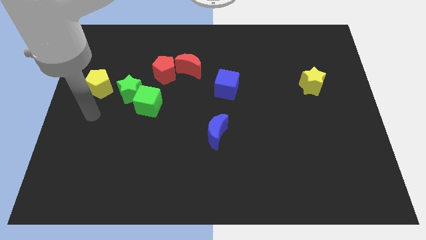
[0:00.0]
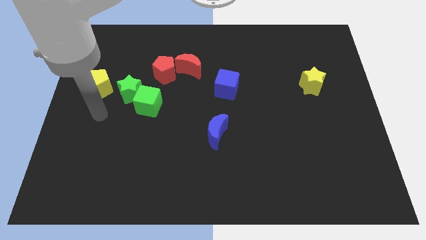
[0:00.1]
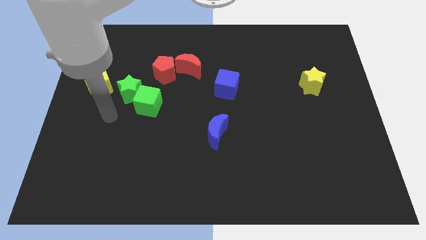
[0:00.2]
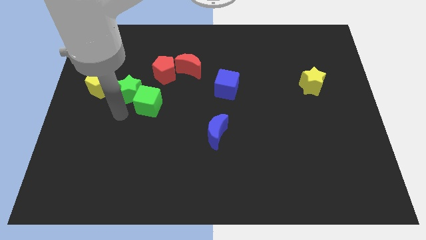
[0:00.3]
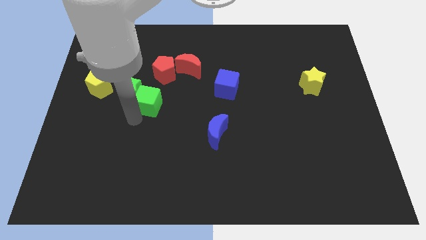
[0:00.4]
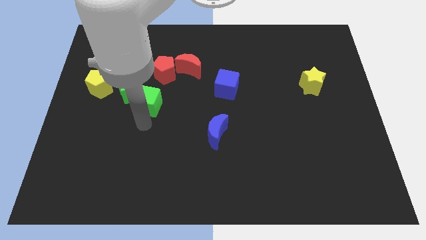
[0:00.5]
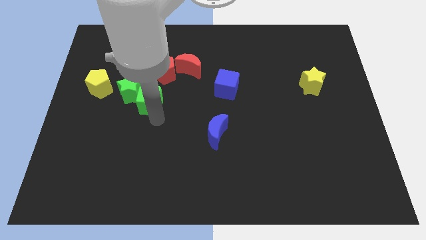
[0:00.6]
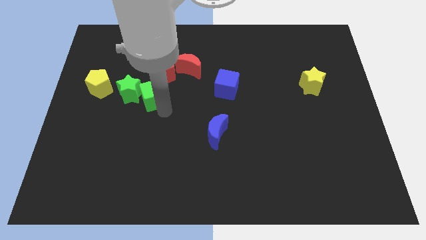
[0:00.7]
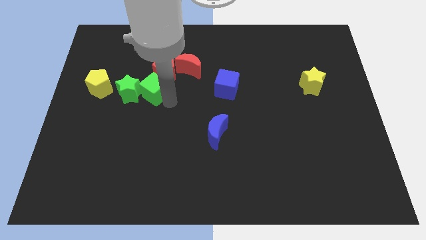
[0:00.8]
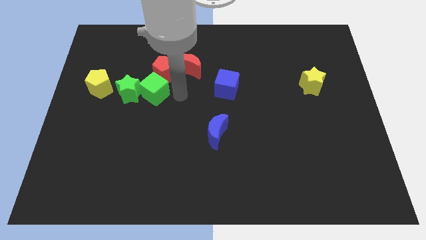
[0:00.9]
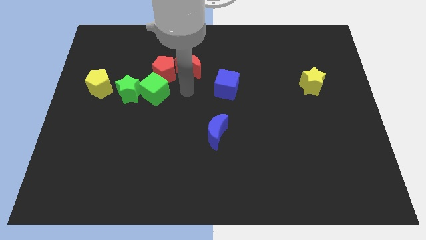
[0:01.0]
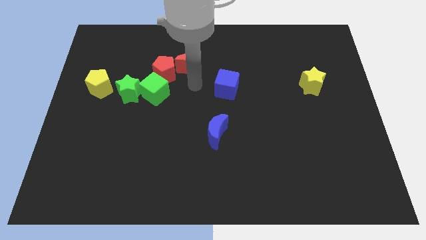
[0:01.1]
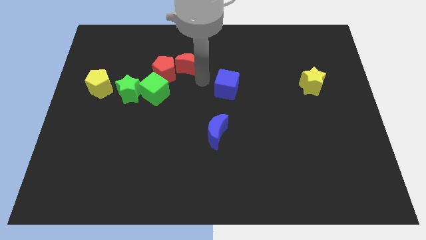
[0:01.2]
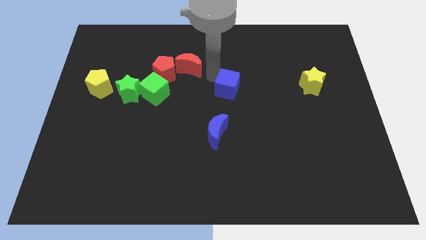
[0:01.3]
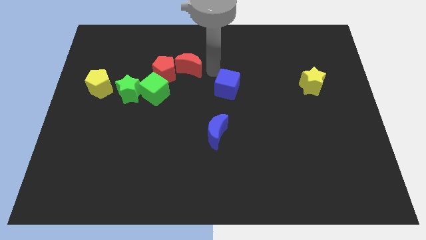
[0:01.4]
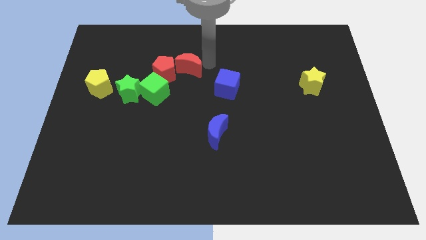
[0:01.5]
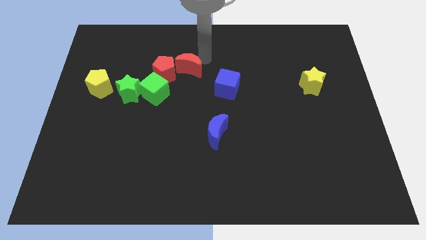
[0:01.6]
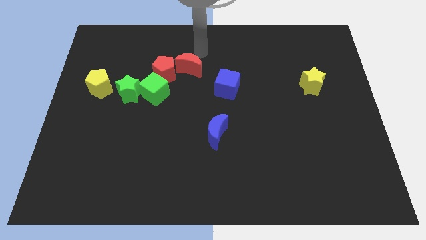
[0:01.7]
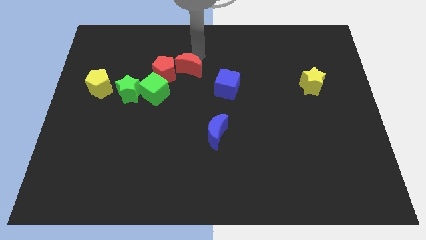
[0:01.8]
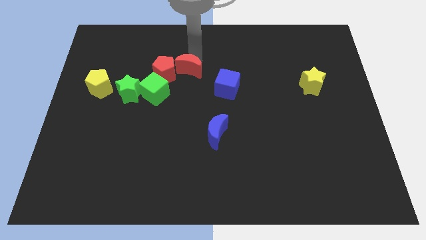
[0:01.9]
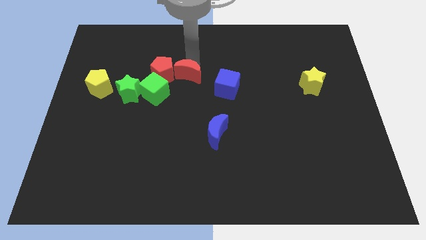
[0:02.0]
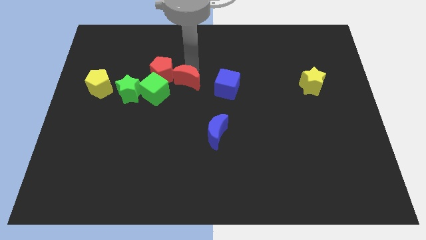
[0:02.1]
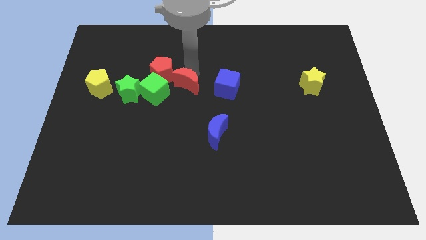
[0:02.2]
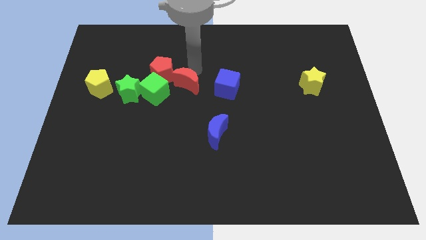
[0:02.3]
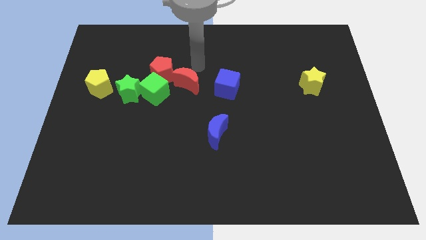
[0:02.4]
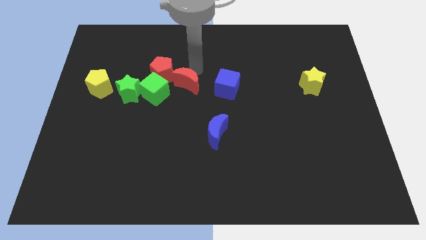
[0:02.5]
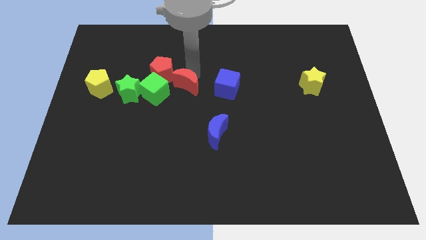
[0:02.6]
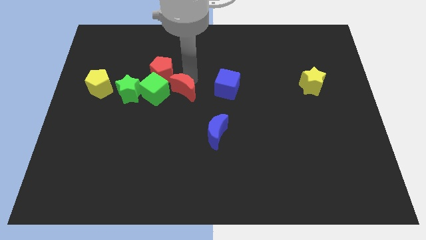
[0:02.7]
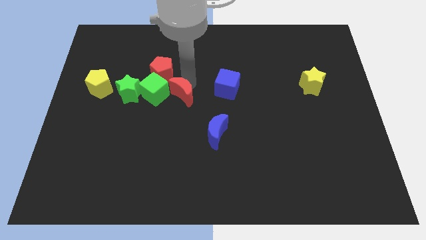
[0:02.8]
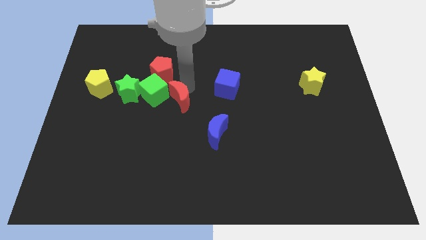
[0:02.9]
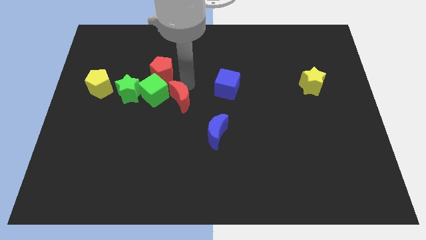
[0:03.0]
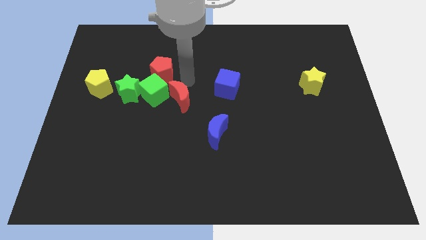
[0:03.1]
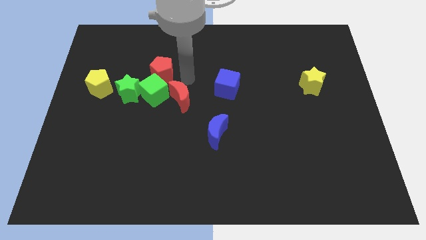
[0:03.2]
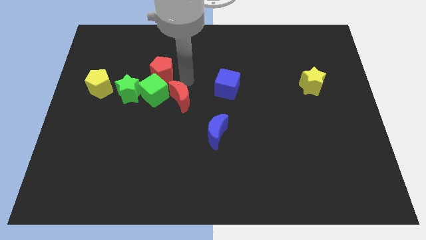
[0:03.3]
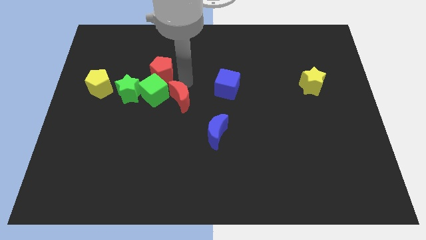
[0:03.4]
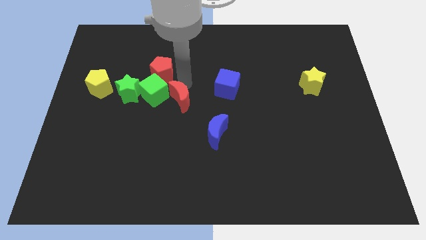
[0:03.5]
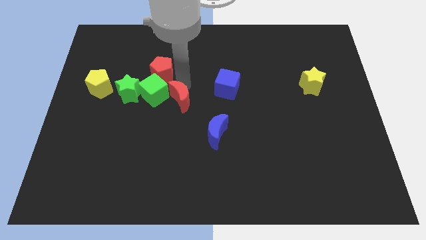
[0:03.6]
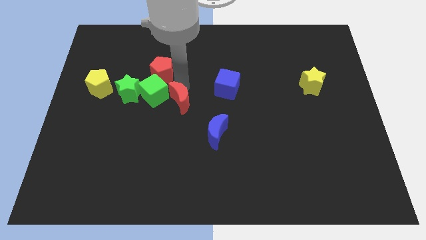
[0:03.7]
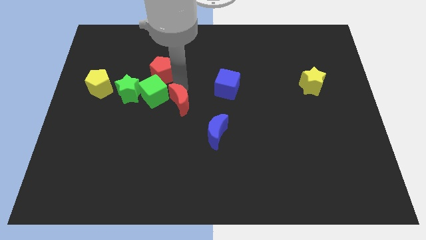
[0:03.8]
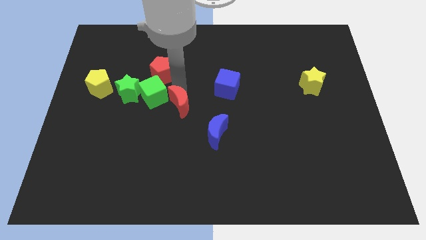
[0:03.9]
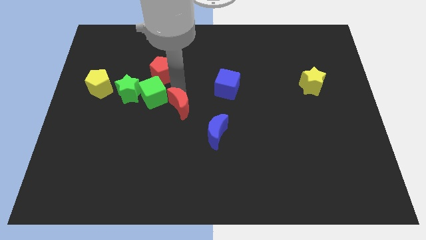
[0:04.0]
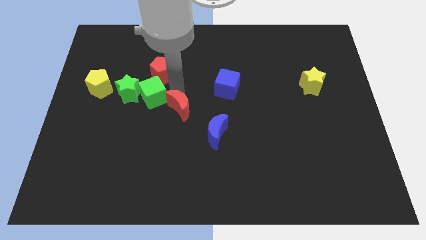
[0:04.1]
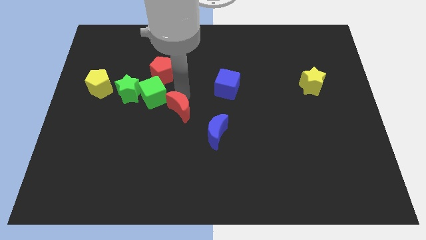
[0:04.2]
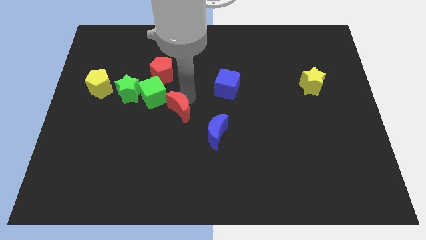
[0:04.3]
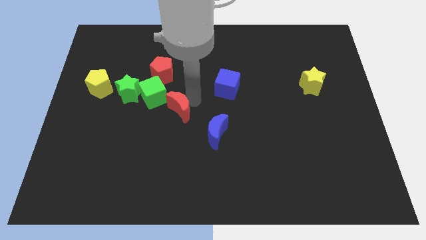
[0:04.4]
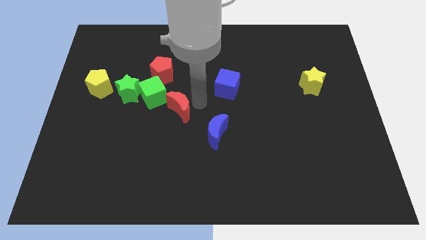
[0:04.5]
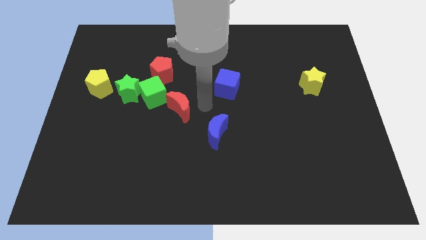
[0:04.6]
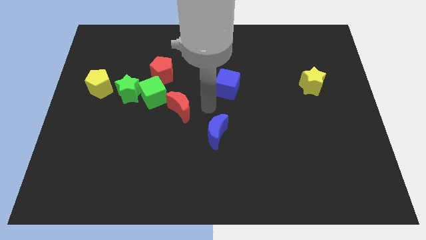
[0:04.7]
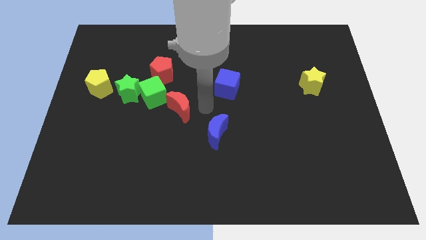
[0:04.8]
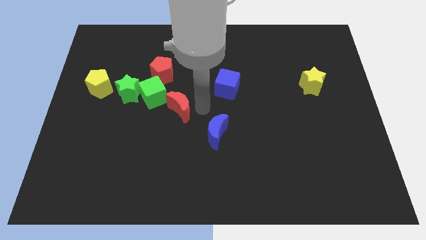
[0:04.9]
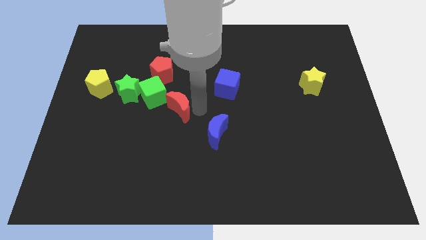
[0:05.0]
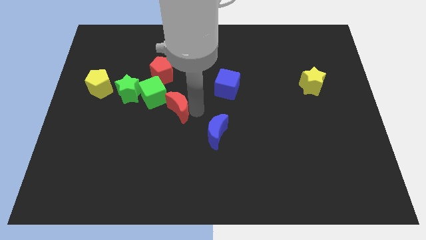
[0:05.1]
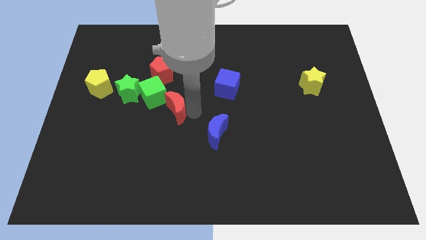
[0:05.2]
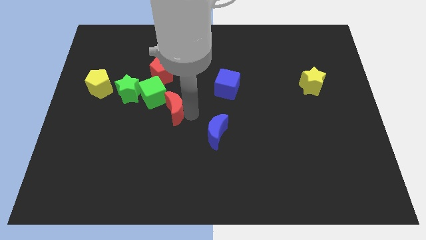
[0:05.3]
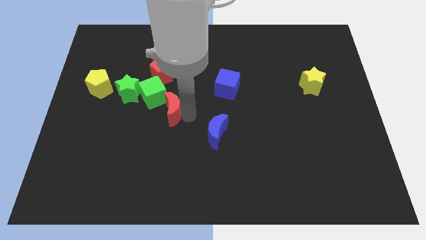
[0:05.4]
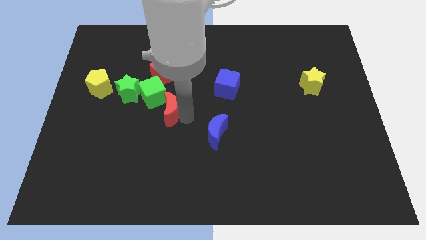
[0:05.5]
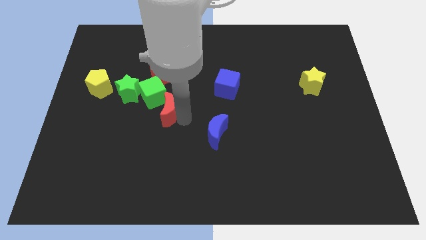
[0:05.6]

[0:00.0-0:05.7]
slide the red moon diagonally down and to the right of the green star
